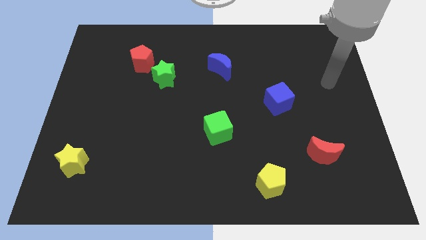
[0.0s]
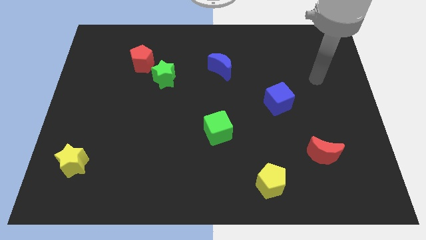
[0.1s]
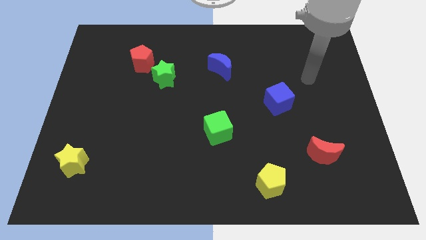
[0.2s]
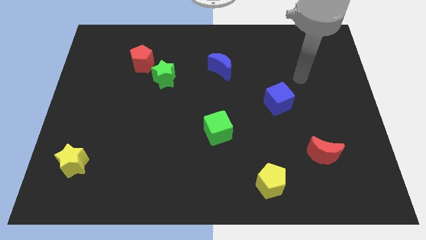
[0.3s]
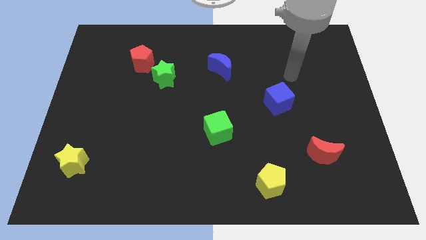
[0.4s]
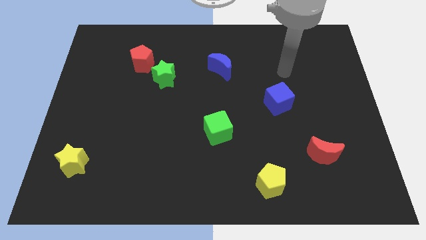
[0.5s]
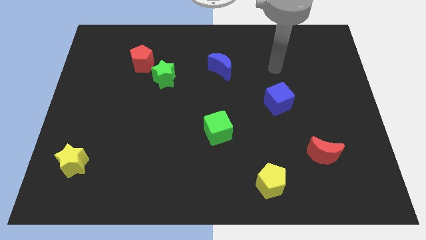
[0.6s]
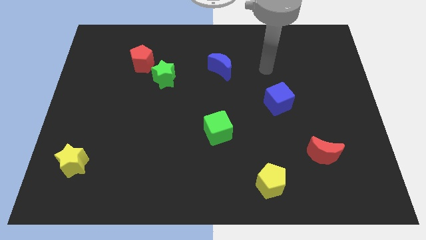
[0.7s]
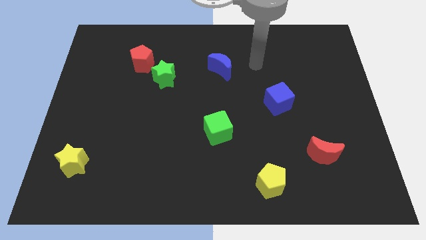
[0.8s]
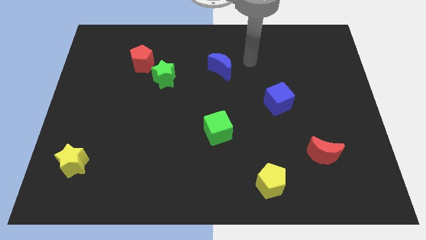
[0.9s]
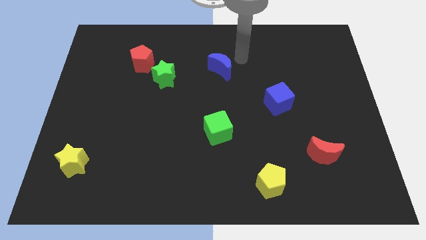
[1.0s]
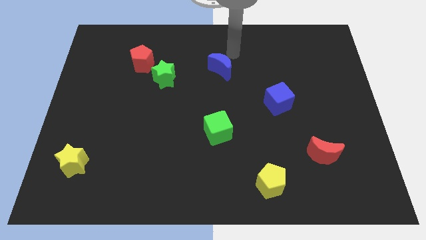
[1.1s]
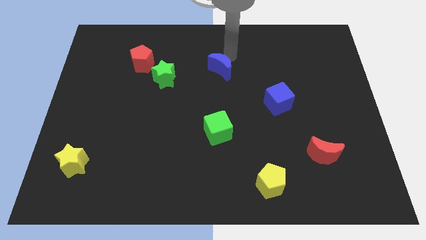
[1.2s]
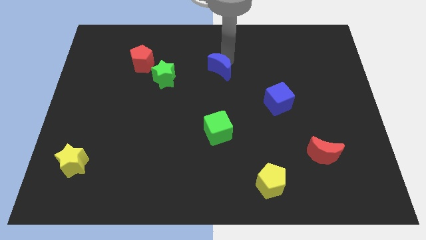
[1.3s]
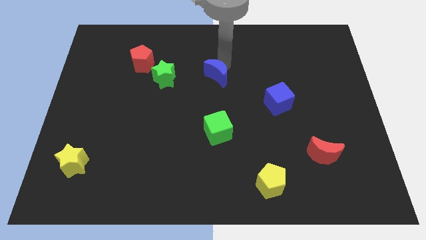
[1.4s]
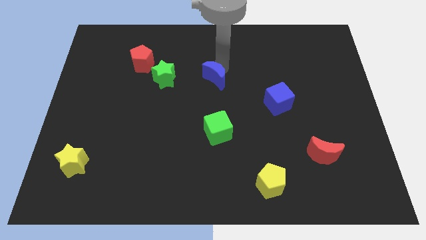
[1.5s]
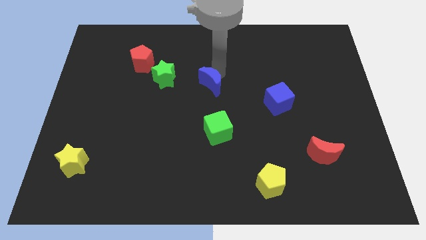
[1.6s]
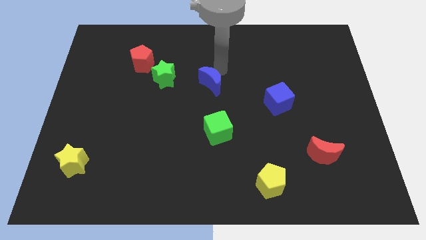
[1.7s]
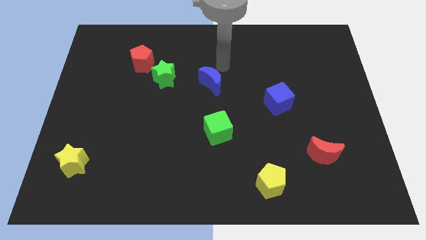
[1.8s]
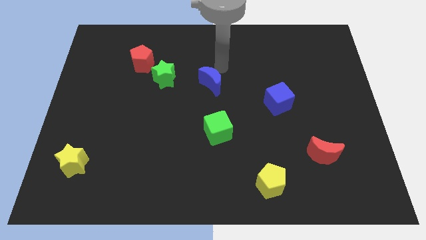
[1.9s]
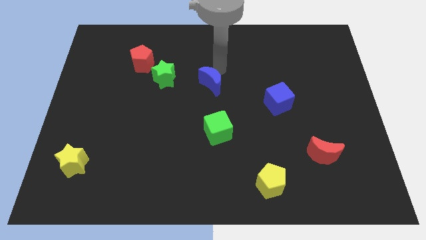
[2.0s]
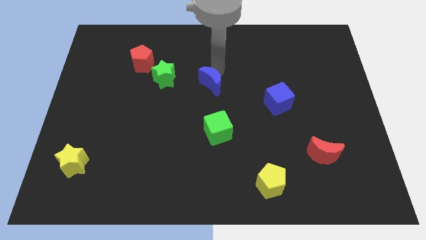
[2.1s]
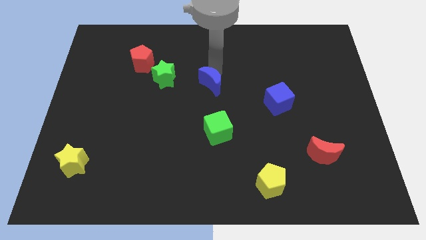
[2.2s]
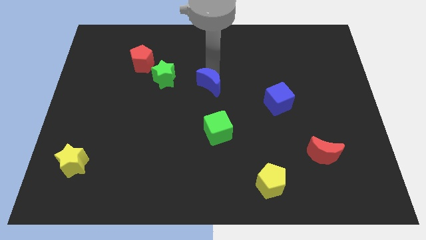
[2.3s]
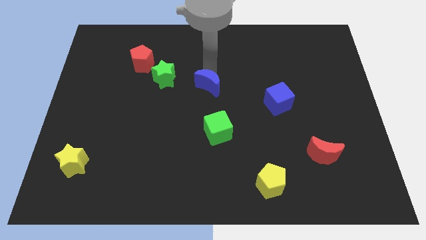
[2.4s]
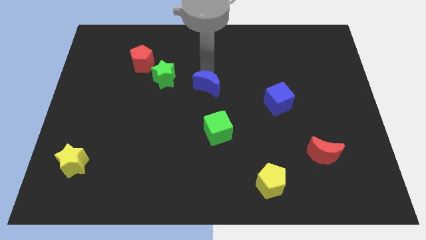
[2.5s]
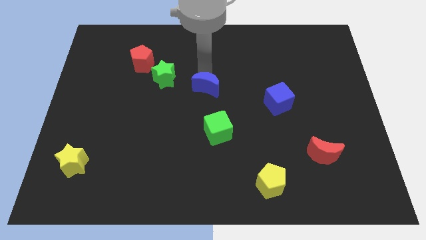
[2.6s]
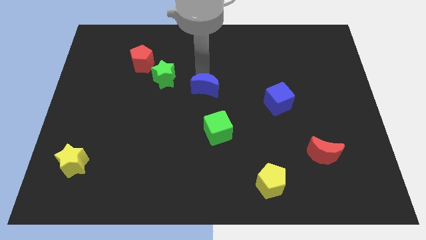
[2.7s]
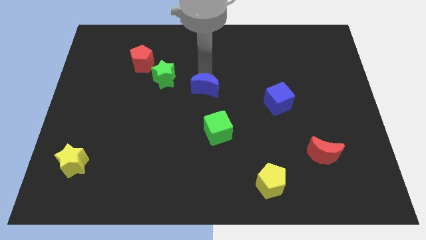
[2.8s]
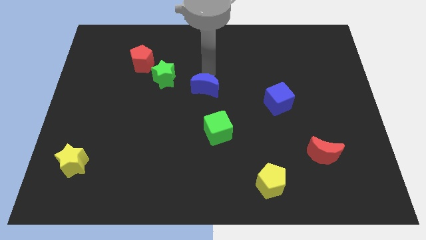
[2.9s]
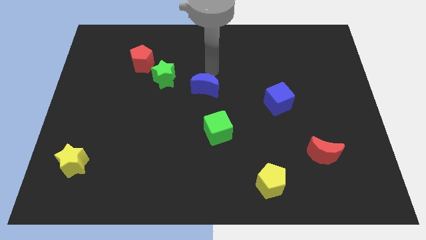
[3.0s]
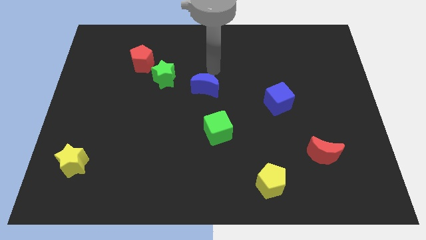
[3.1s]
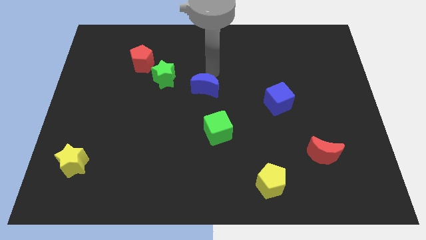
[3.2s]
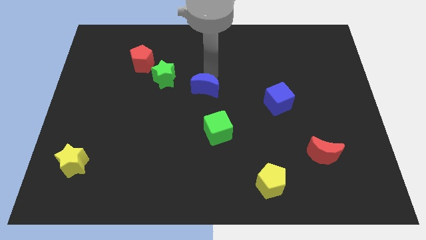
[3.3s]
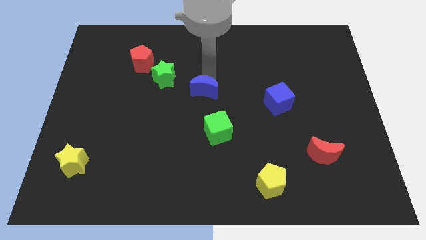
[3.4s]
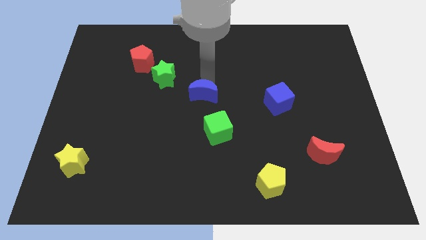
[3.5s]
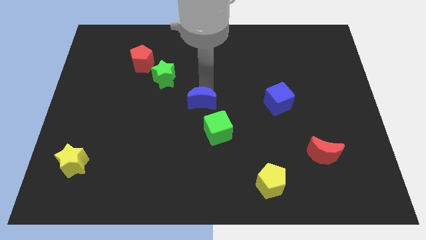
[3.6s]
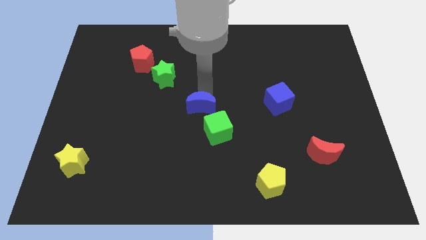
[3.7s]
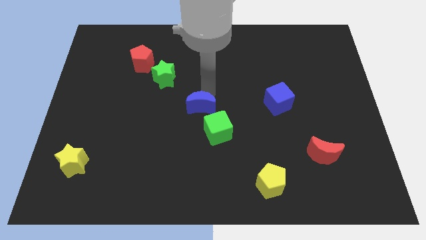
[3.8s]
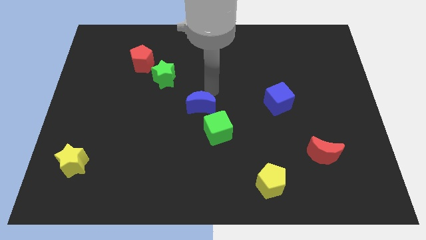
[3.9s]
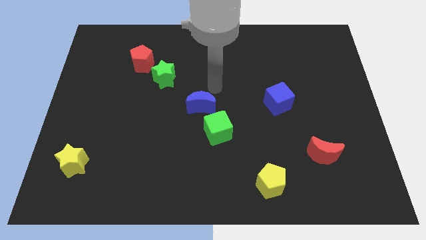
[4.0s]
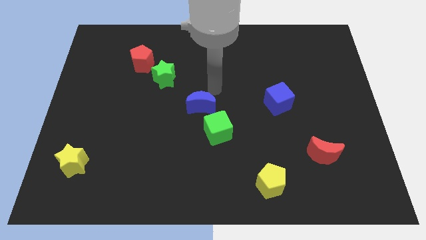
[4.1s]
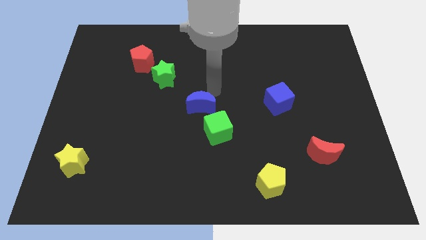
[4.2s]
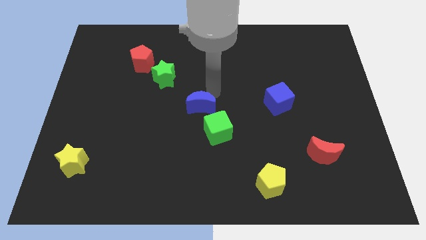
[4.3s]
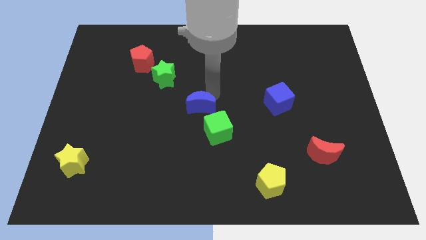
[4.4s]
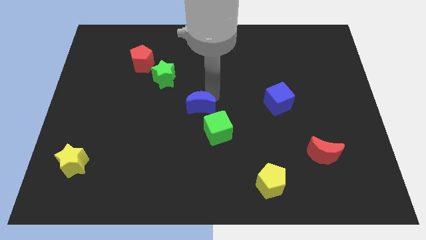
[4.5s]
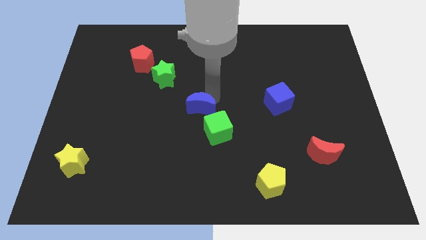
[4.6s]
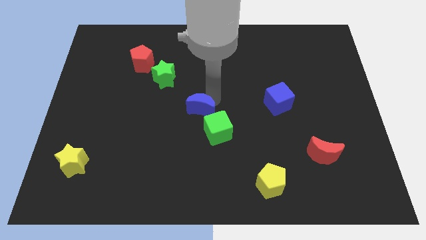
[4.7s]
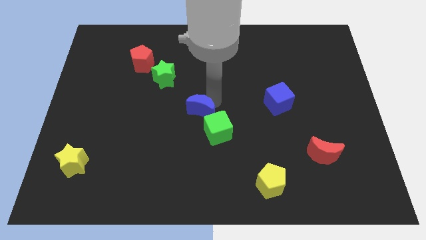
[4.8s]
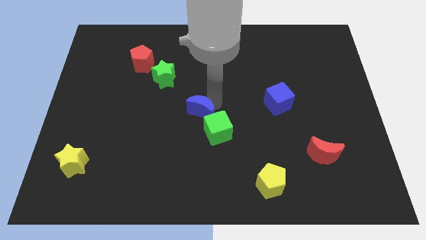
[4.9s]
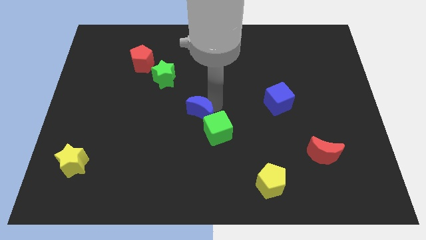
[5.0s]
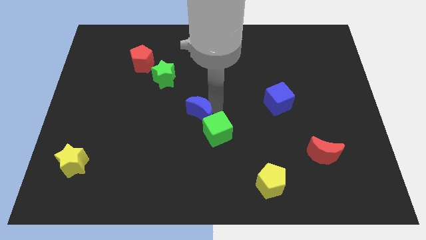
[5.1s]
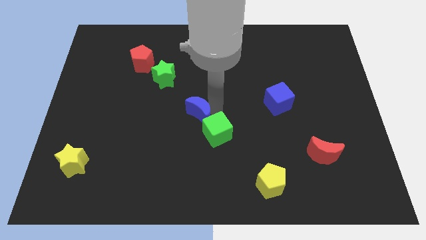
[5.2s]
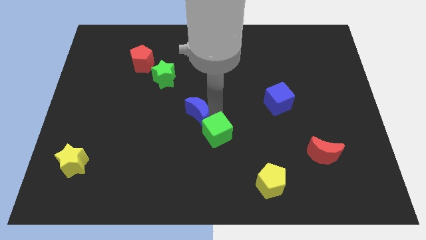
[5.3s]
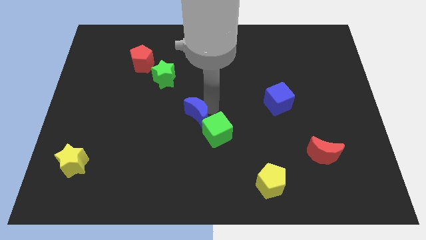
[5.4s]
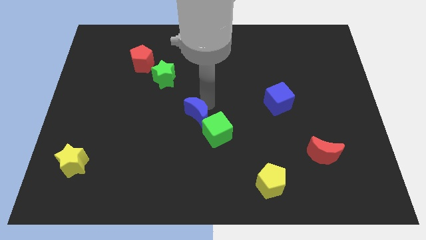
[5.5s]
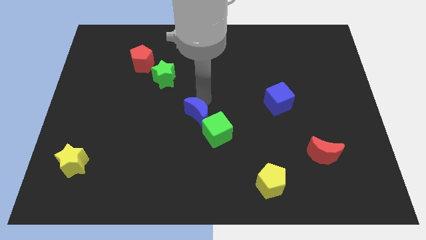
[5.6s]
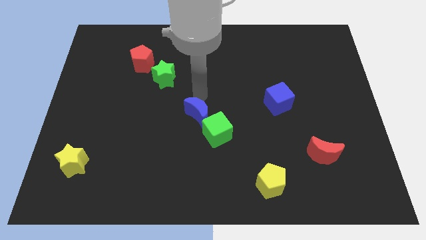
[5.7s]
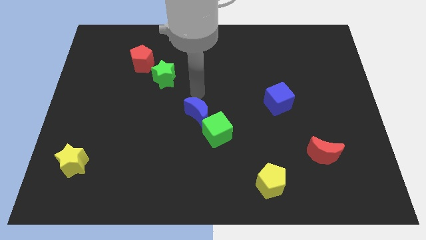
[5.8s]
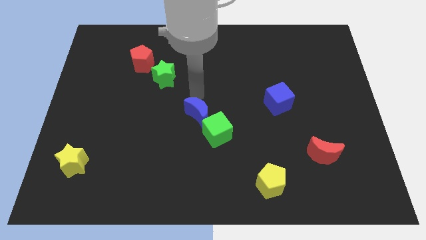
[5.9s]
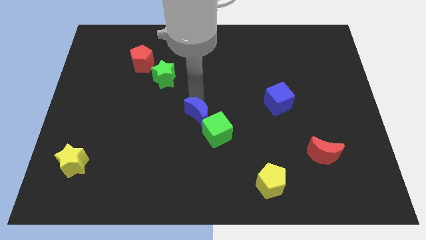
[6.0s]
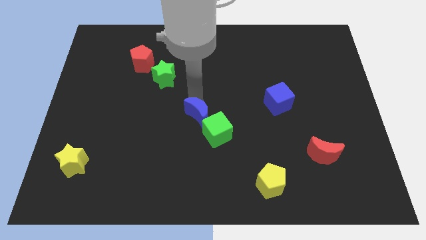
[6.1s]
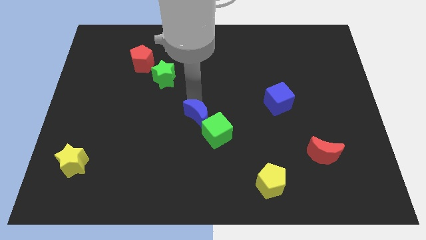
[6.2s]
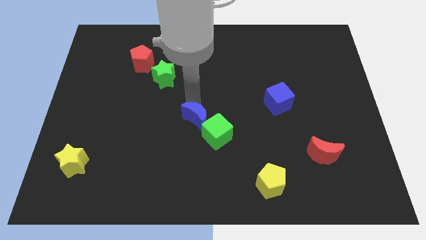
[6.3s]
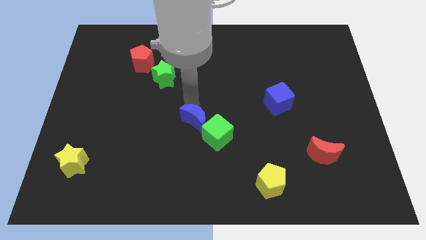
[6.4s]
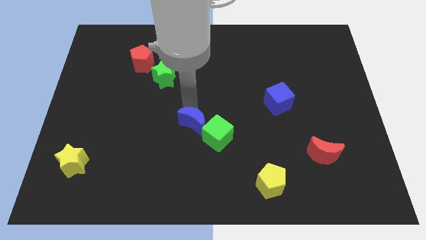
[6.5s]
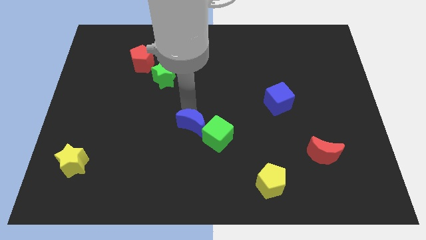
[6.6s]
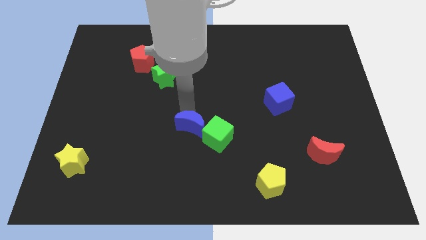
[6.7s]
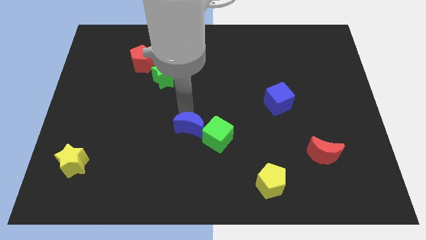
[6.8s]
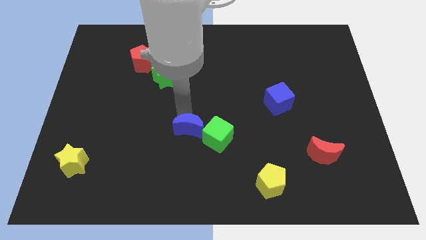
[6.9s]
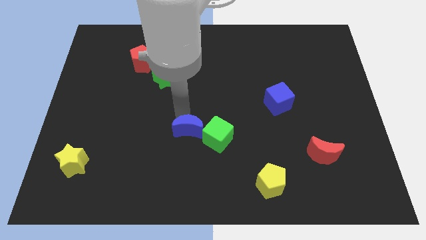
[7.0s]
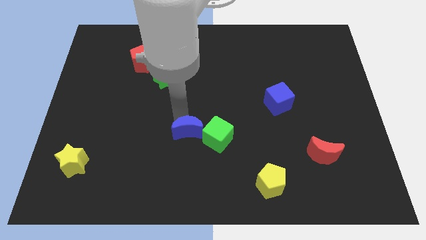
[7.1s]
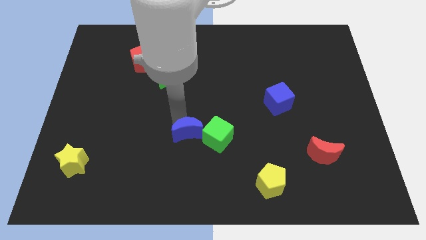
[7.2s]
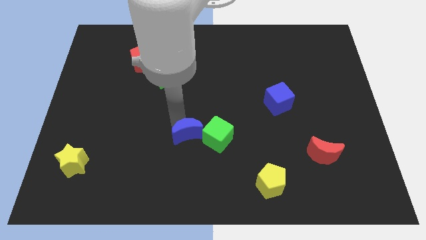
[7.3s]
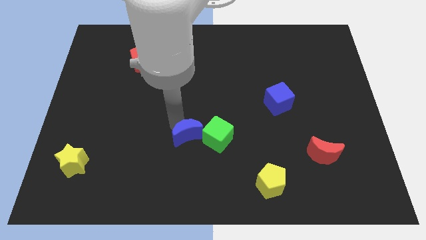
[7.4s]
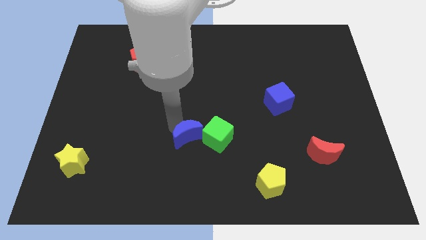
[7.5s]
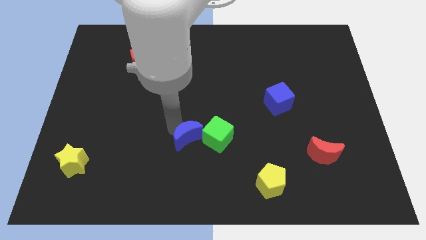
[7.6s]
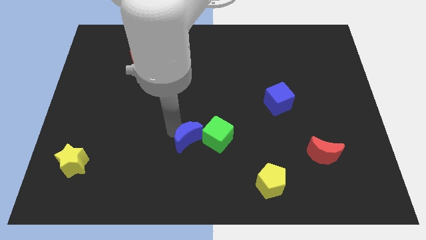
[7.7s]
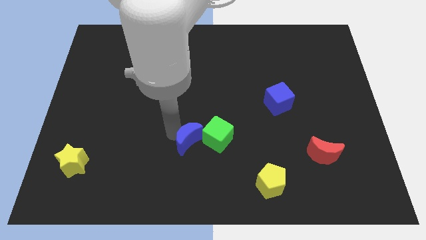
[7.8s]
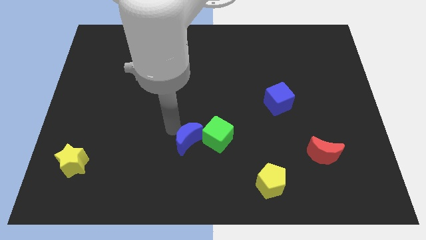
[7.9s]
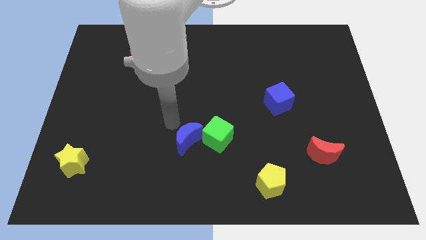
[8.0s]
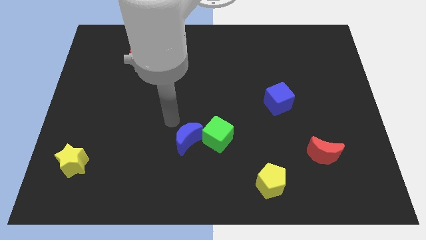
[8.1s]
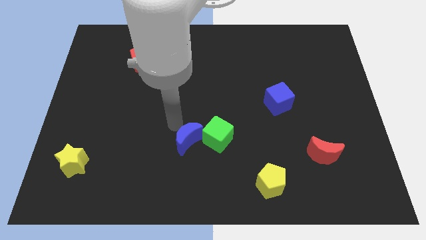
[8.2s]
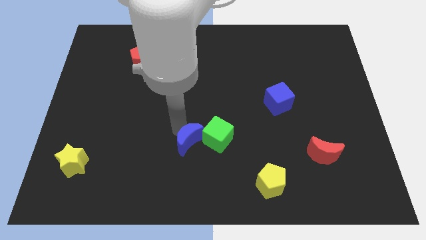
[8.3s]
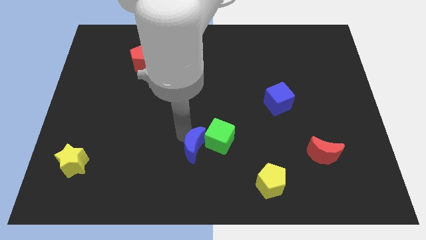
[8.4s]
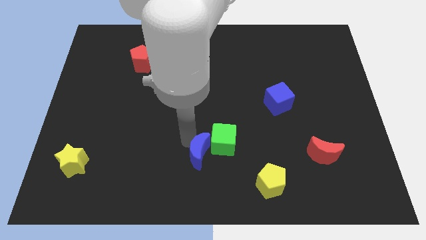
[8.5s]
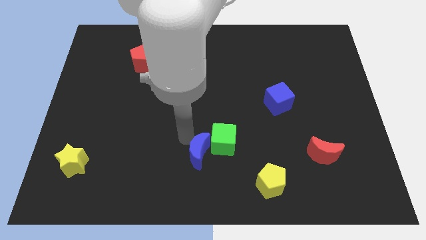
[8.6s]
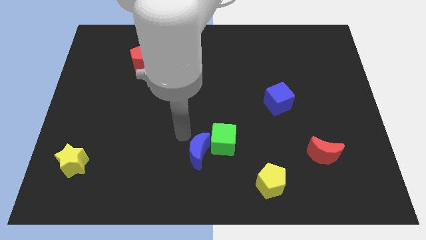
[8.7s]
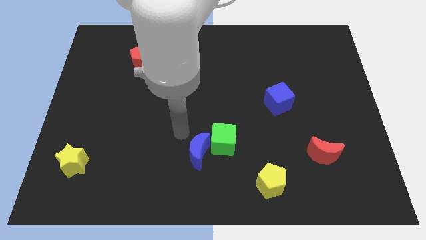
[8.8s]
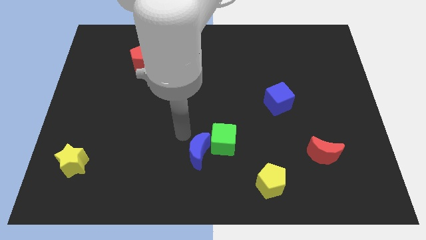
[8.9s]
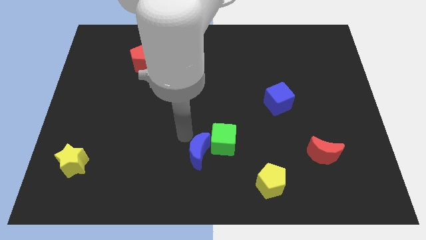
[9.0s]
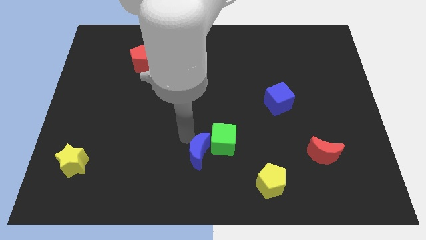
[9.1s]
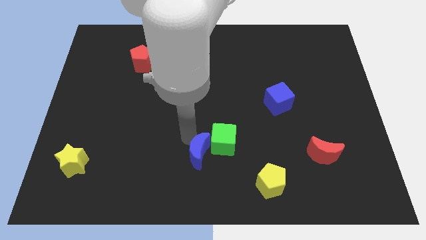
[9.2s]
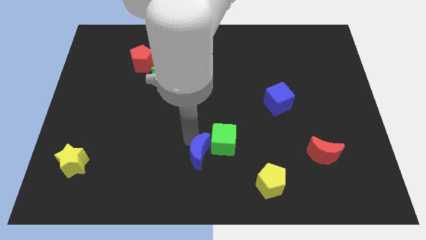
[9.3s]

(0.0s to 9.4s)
slide the blue moon to the bottom side
